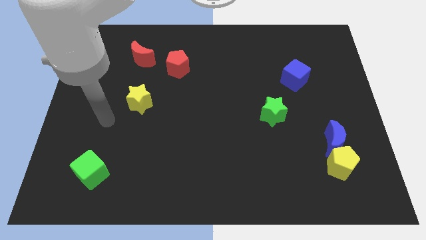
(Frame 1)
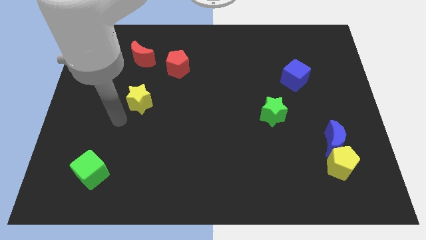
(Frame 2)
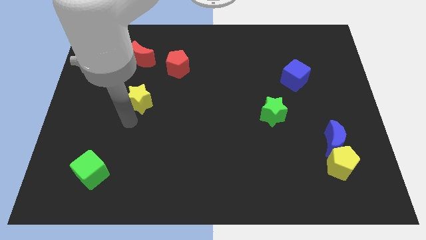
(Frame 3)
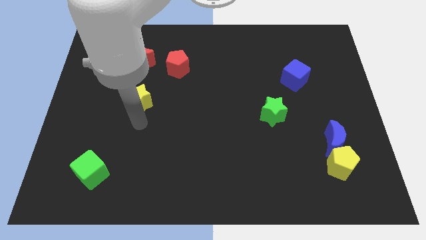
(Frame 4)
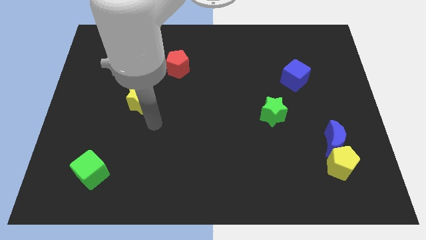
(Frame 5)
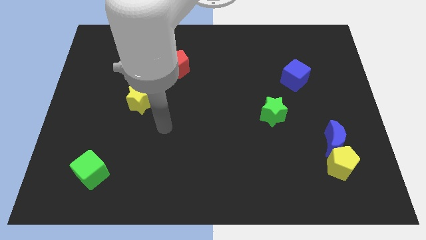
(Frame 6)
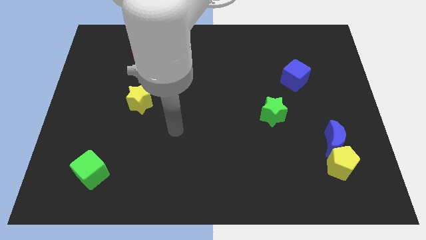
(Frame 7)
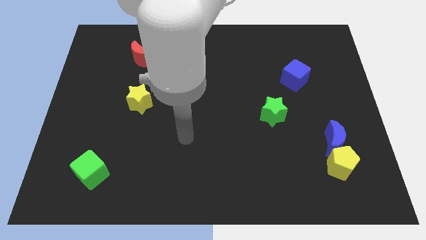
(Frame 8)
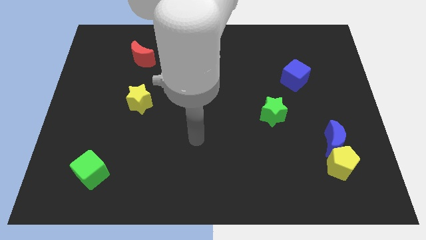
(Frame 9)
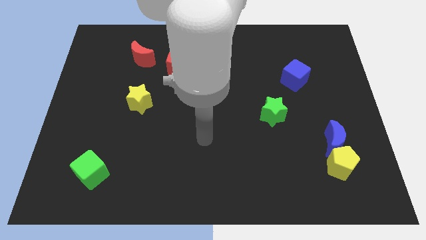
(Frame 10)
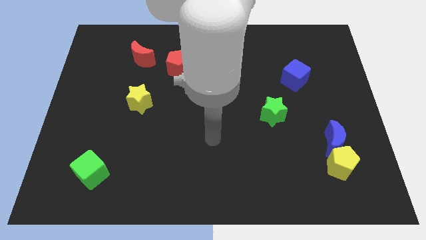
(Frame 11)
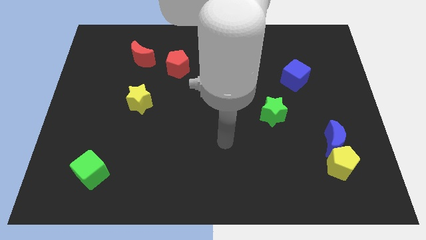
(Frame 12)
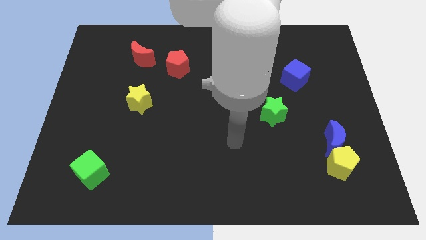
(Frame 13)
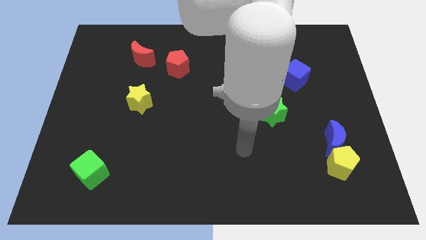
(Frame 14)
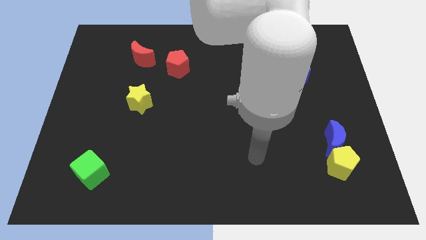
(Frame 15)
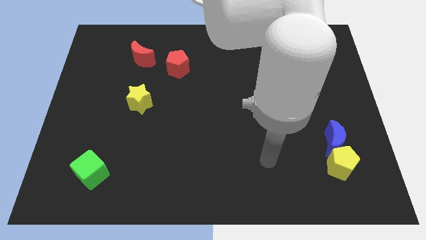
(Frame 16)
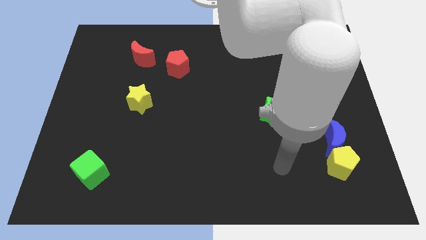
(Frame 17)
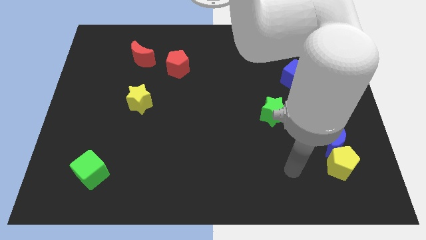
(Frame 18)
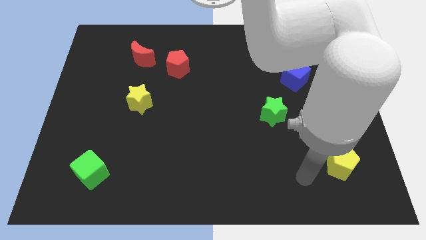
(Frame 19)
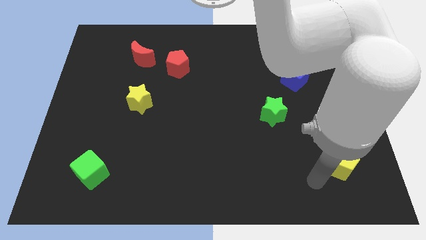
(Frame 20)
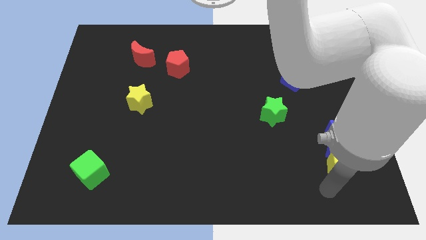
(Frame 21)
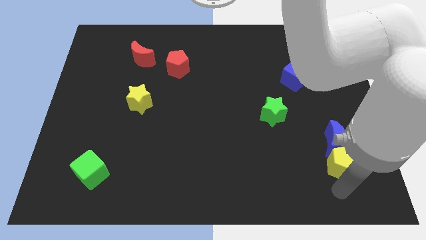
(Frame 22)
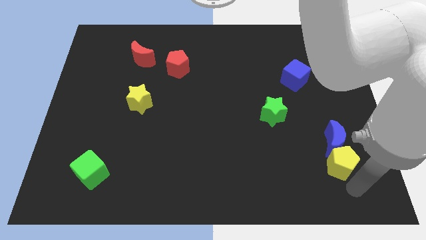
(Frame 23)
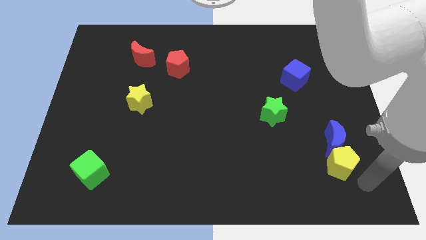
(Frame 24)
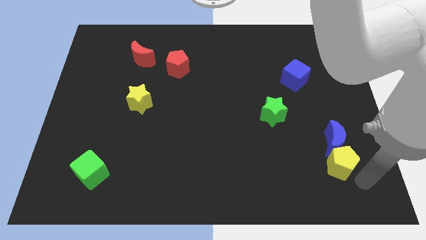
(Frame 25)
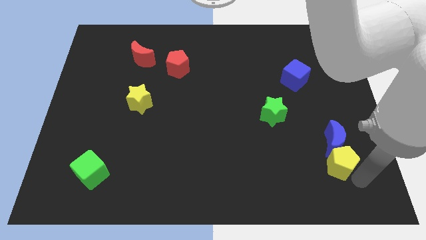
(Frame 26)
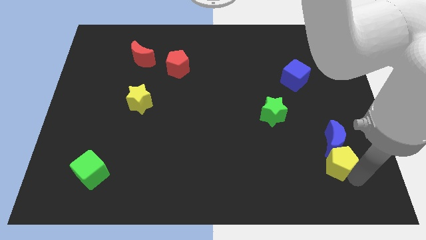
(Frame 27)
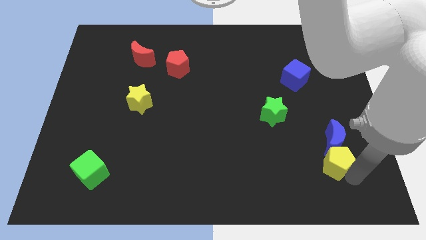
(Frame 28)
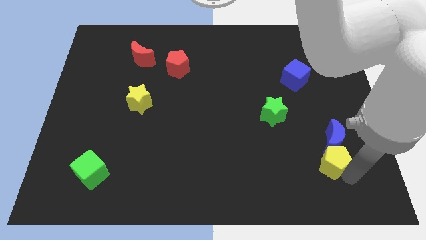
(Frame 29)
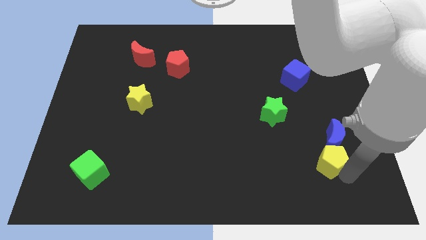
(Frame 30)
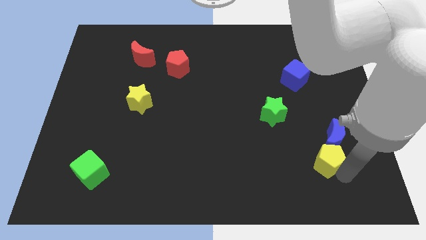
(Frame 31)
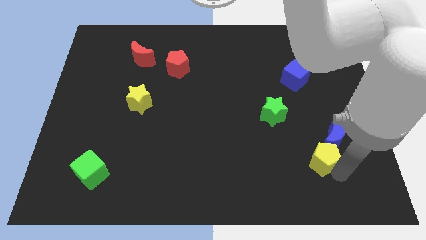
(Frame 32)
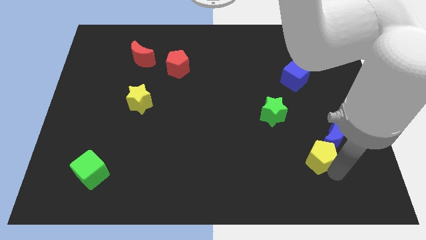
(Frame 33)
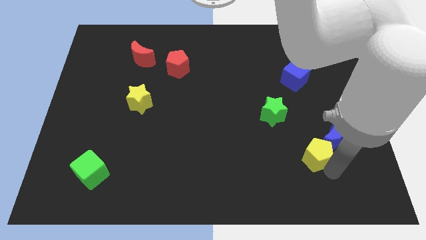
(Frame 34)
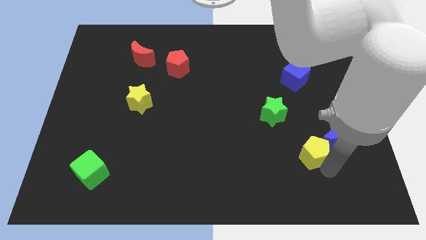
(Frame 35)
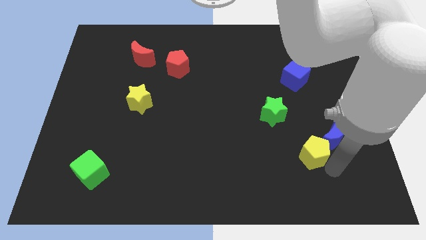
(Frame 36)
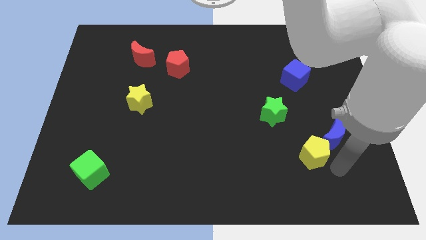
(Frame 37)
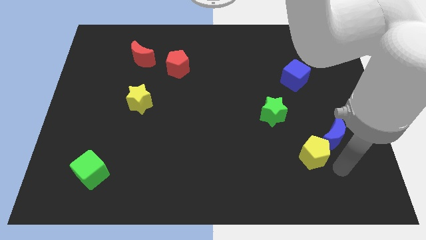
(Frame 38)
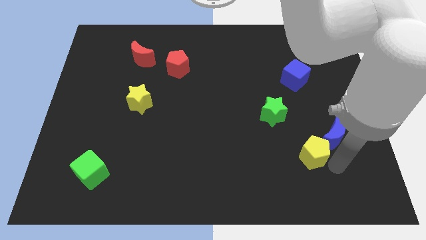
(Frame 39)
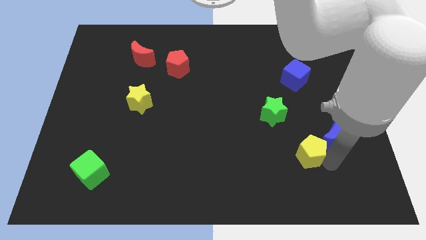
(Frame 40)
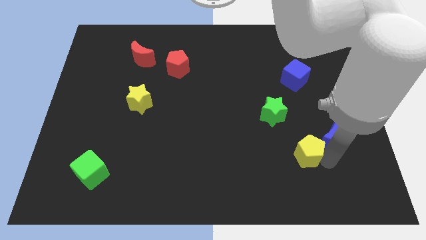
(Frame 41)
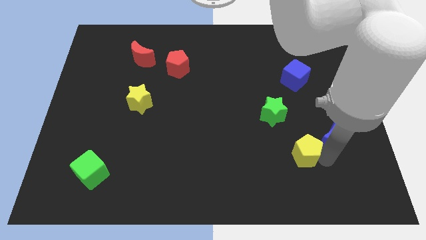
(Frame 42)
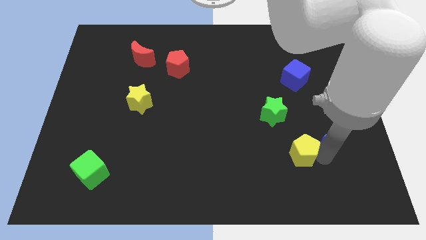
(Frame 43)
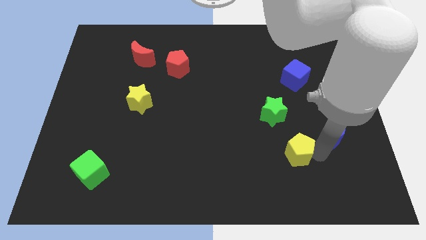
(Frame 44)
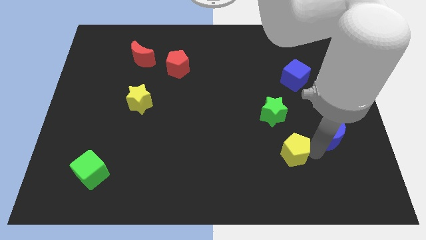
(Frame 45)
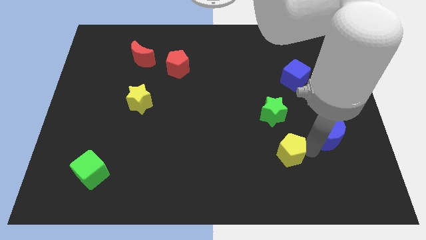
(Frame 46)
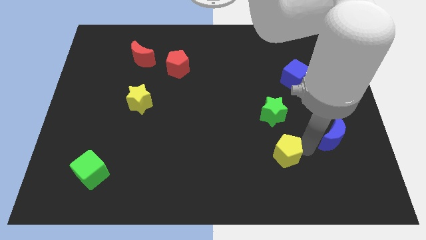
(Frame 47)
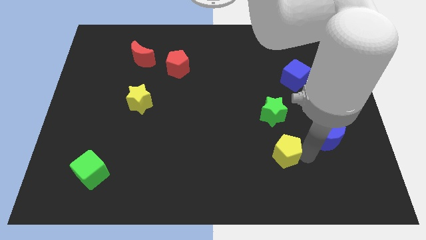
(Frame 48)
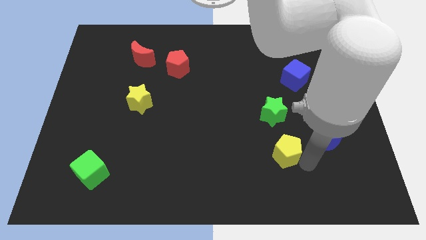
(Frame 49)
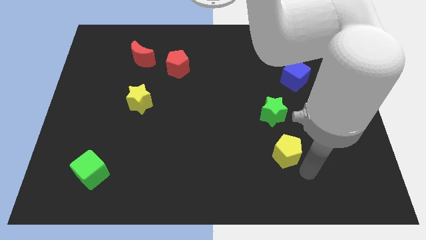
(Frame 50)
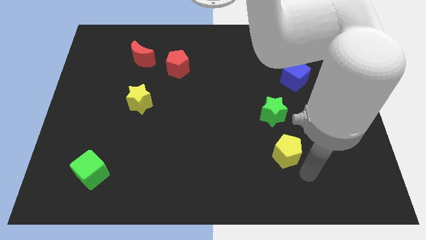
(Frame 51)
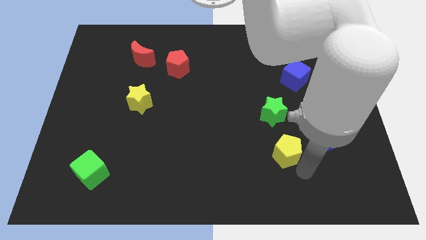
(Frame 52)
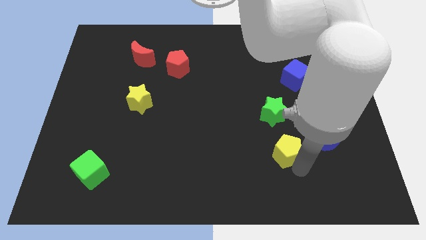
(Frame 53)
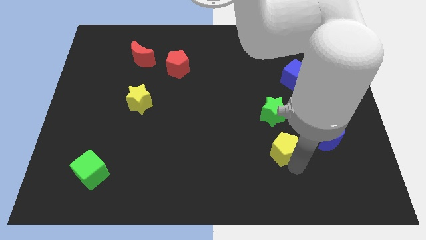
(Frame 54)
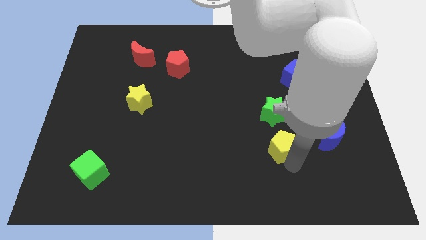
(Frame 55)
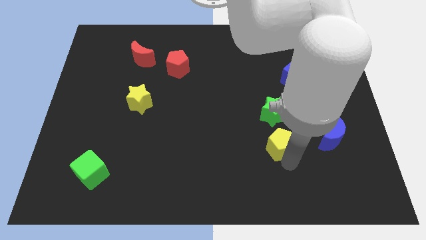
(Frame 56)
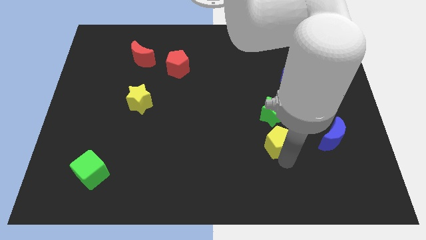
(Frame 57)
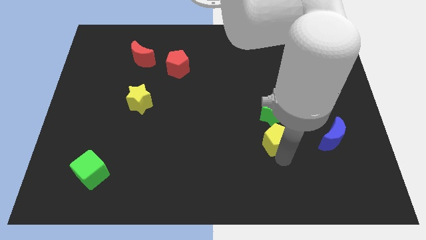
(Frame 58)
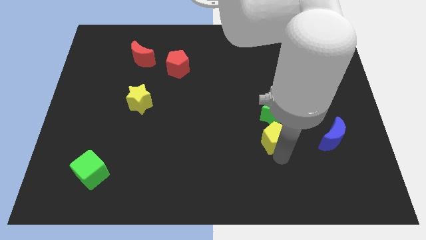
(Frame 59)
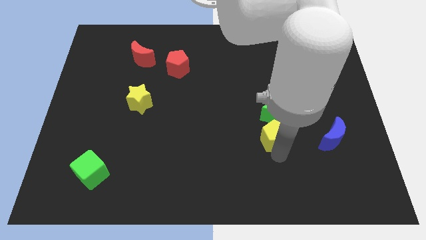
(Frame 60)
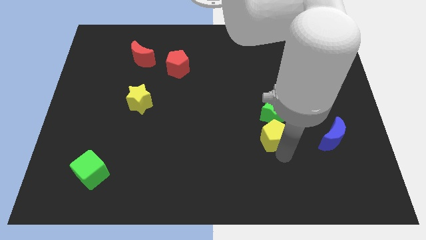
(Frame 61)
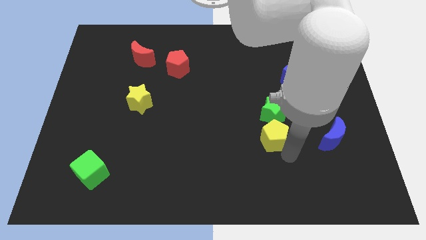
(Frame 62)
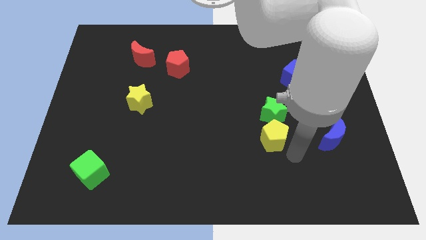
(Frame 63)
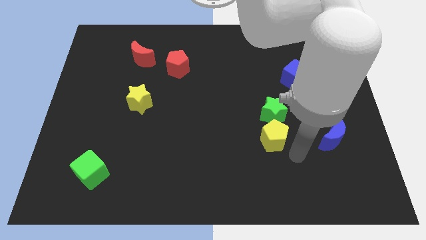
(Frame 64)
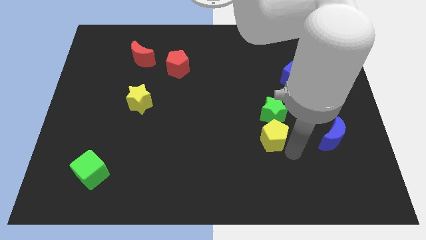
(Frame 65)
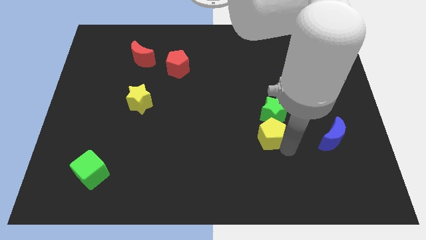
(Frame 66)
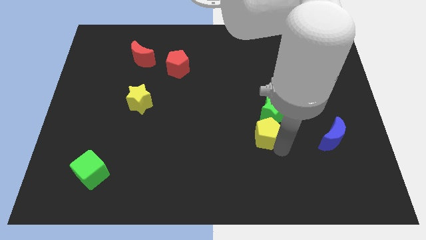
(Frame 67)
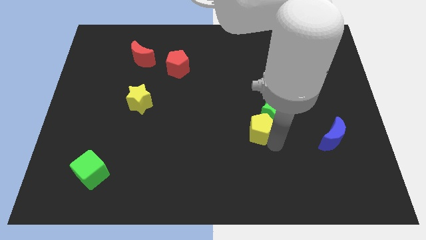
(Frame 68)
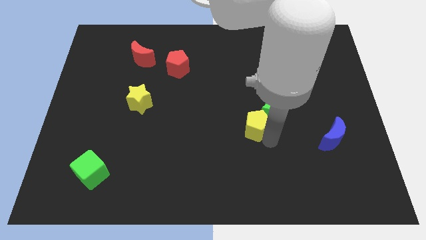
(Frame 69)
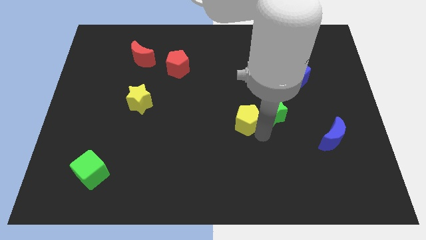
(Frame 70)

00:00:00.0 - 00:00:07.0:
slide the yellow pentagon up and then to the left

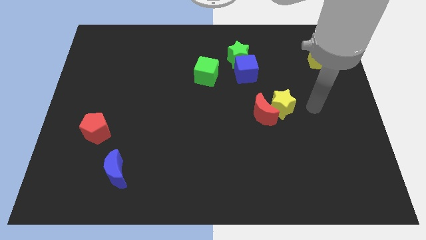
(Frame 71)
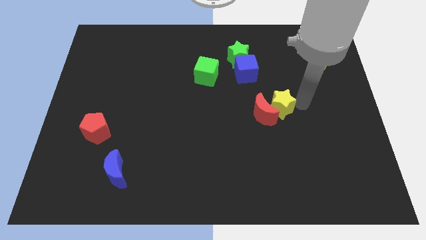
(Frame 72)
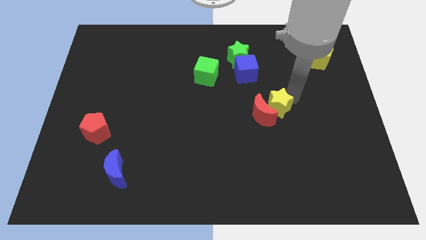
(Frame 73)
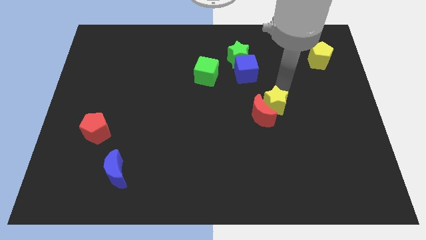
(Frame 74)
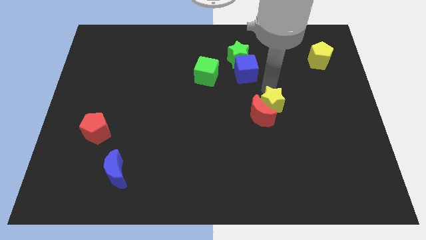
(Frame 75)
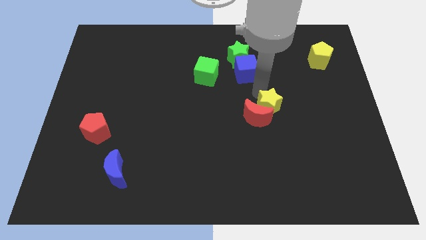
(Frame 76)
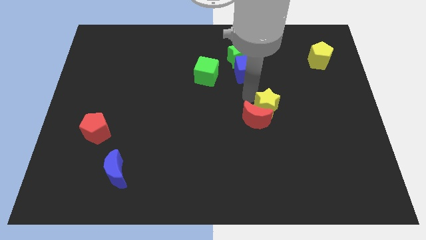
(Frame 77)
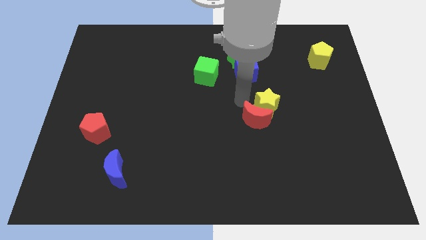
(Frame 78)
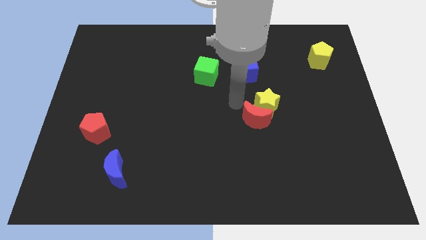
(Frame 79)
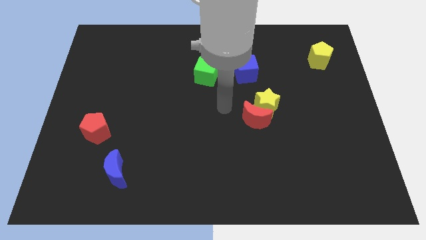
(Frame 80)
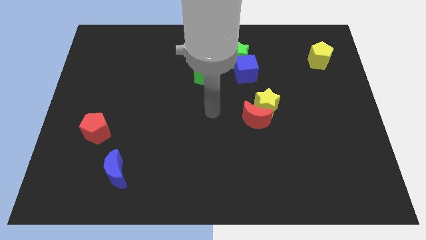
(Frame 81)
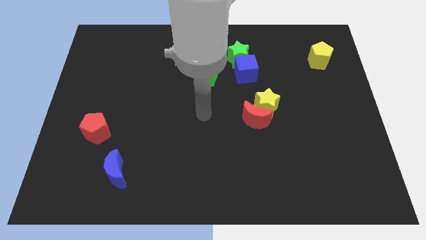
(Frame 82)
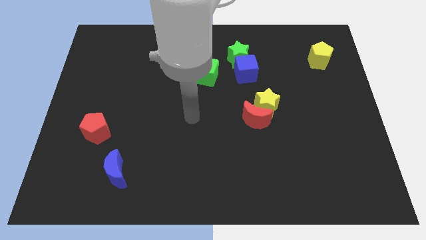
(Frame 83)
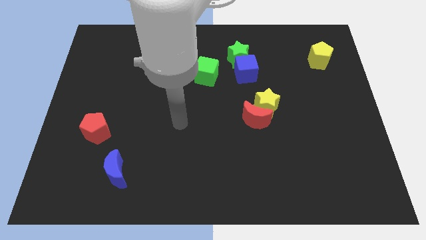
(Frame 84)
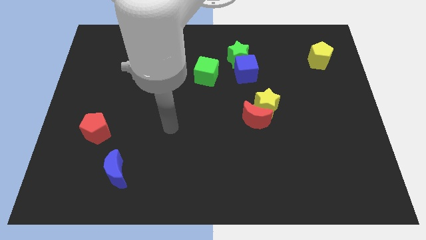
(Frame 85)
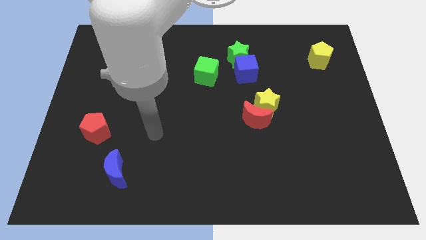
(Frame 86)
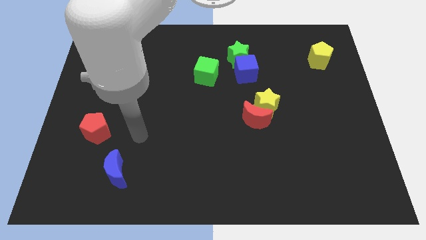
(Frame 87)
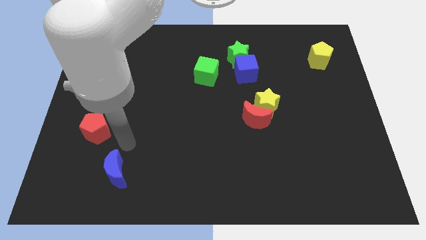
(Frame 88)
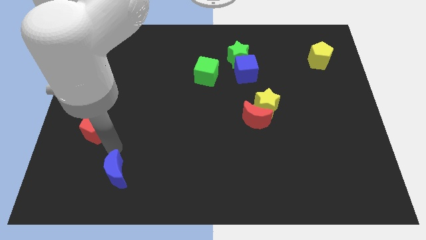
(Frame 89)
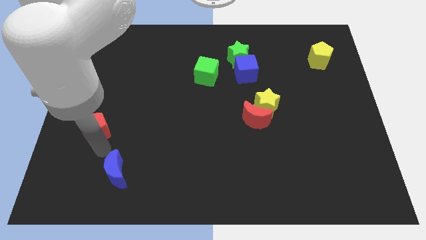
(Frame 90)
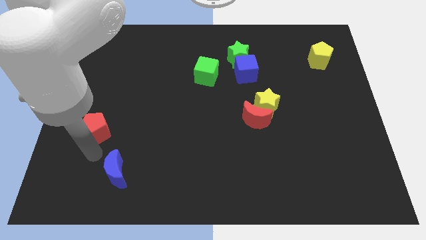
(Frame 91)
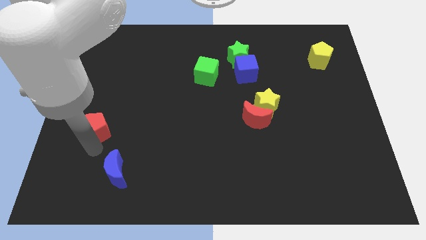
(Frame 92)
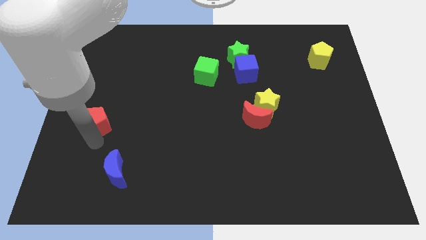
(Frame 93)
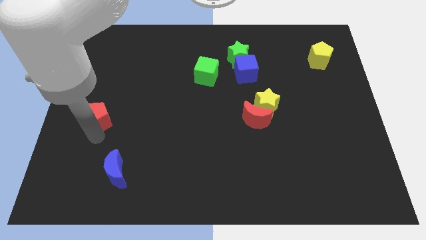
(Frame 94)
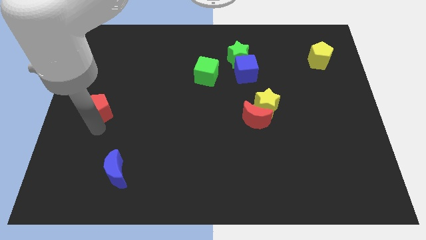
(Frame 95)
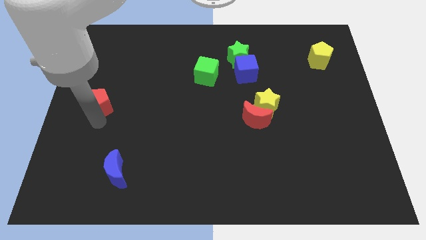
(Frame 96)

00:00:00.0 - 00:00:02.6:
slightly move the red pentagon upwards
